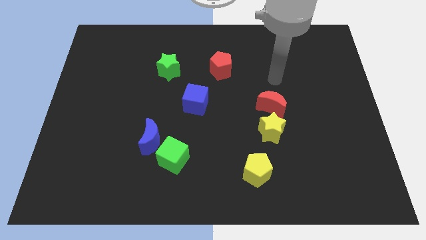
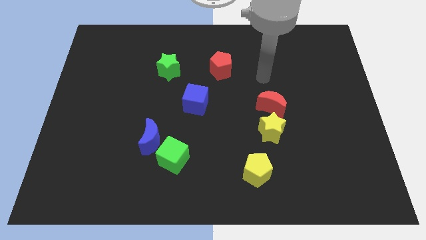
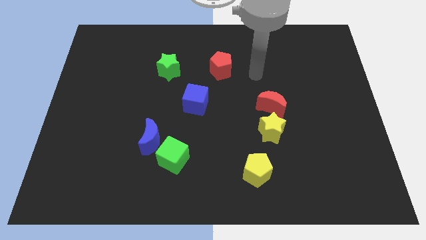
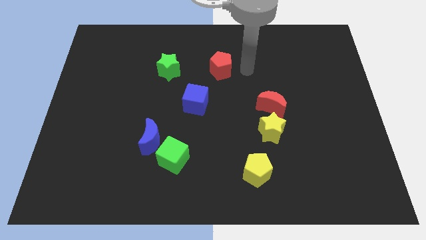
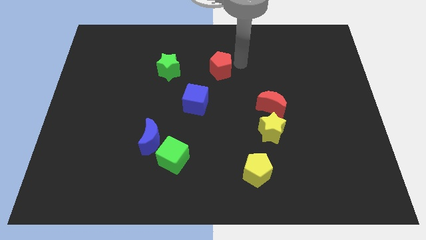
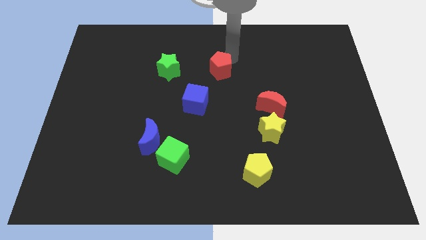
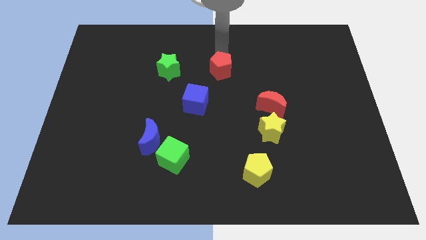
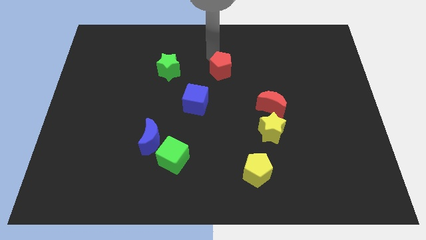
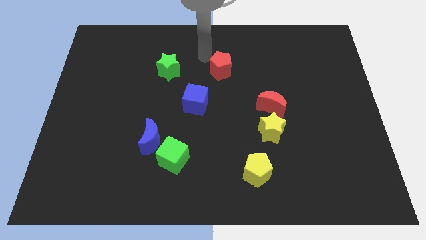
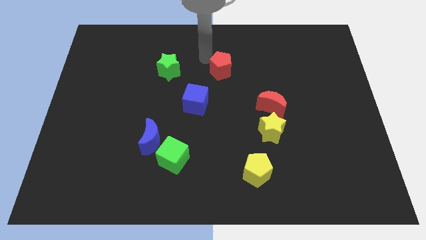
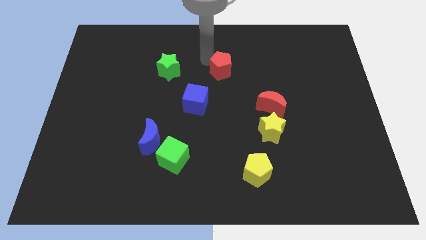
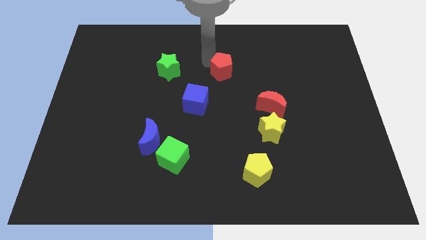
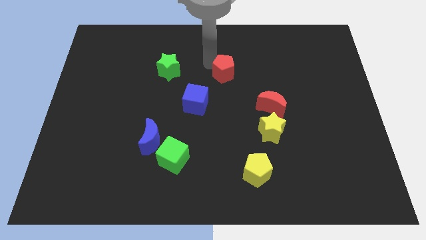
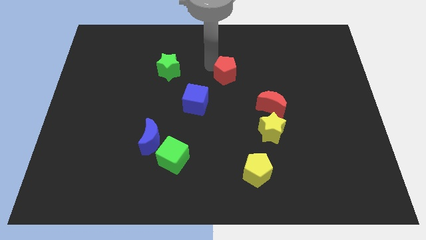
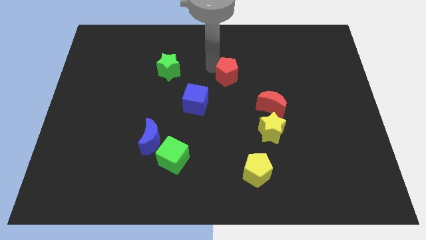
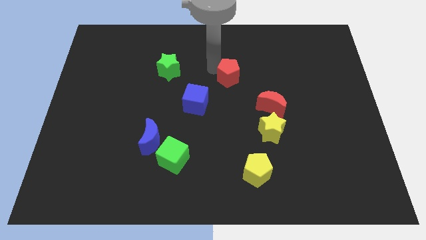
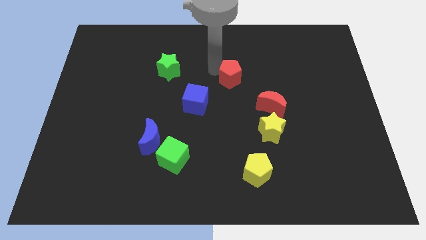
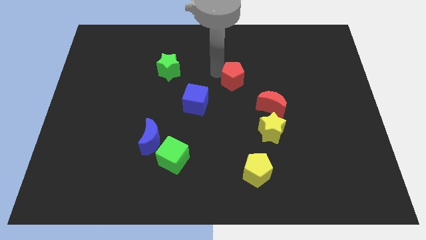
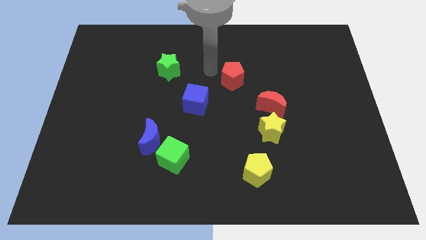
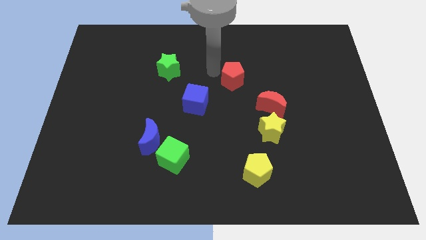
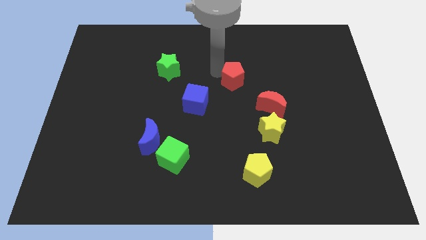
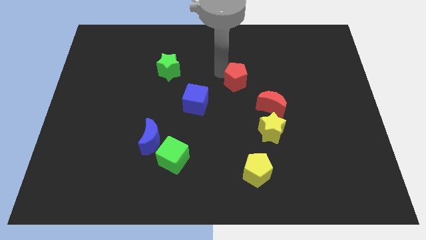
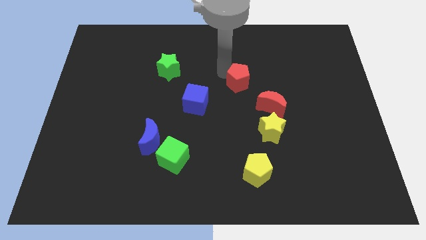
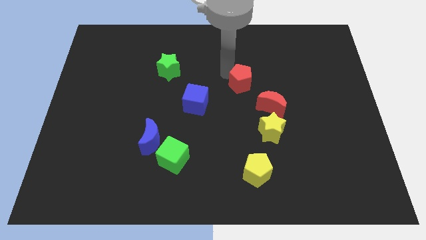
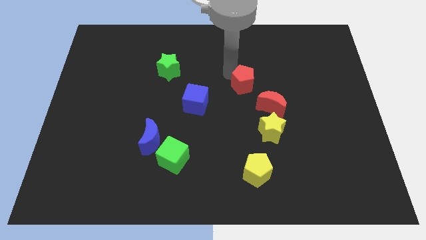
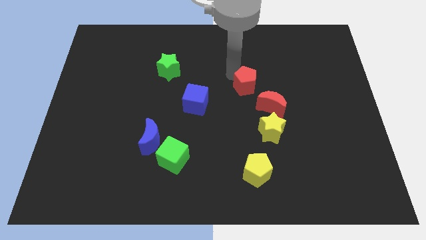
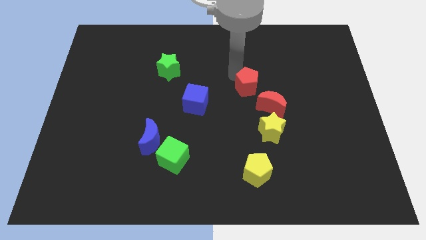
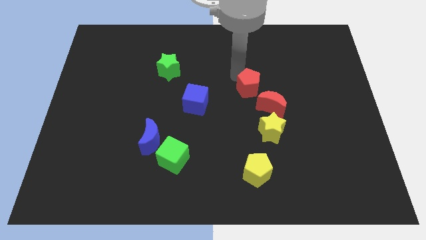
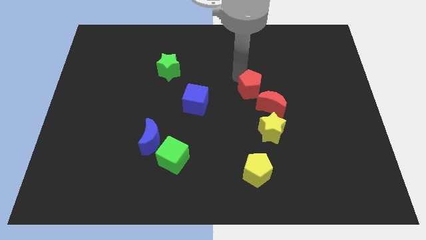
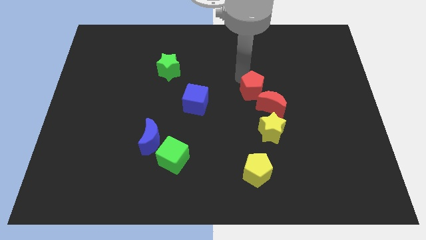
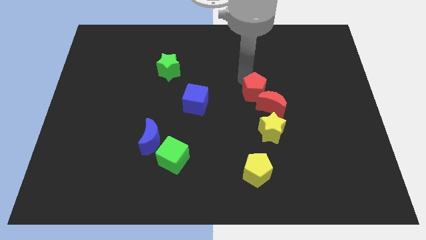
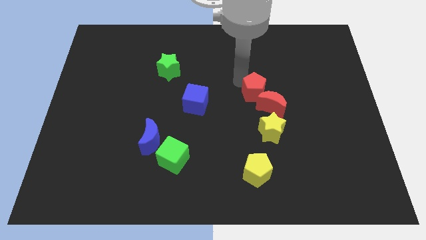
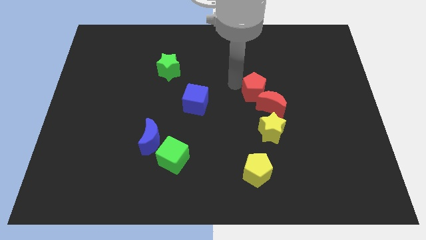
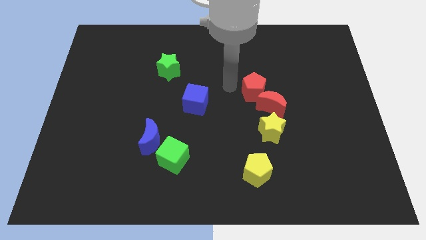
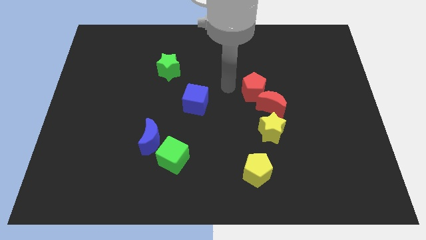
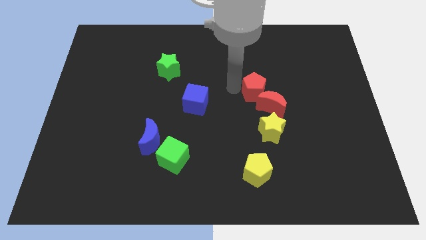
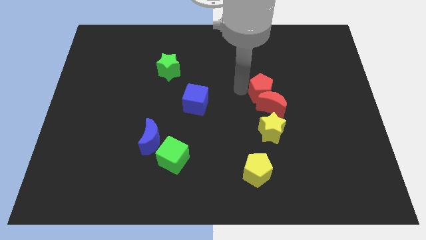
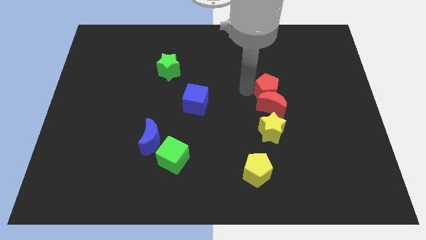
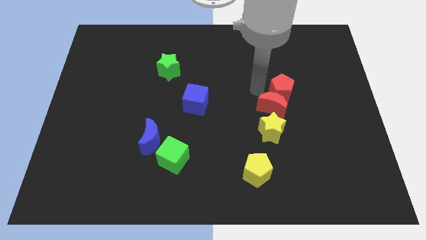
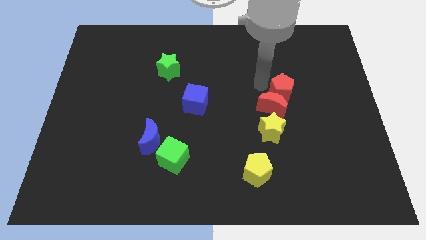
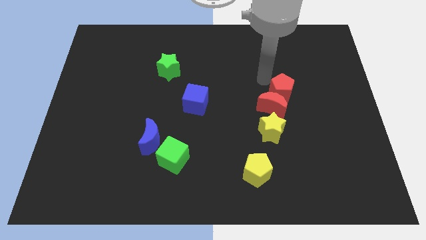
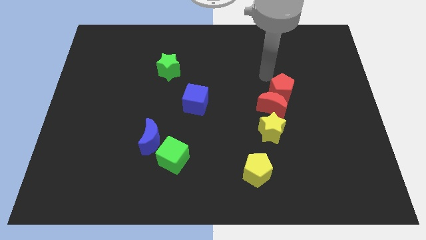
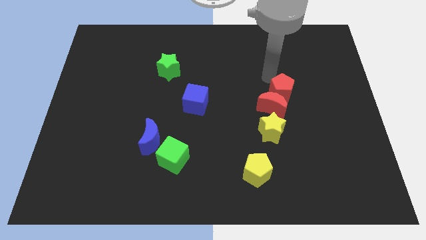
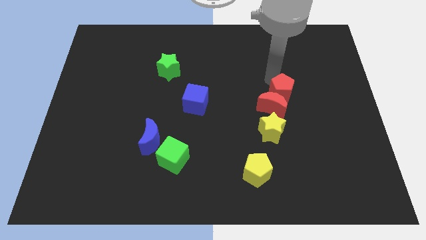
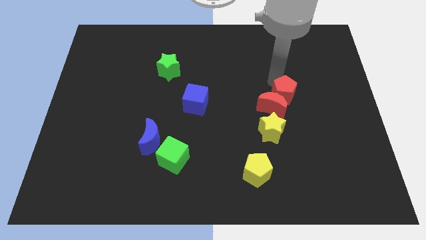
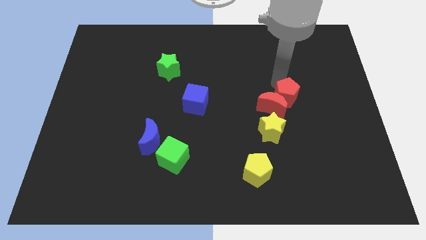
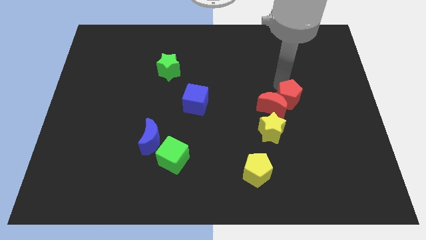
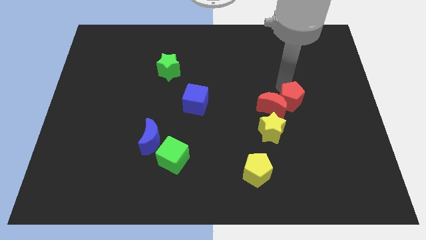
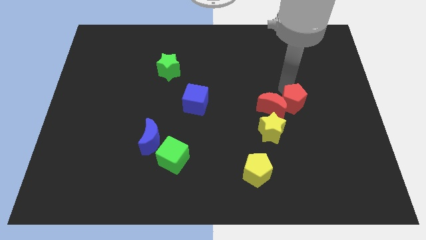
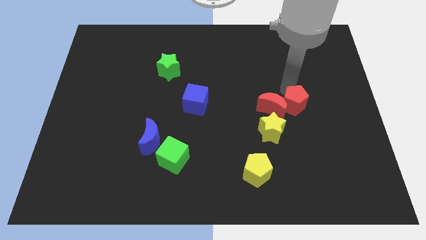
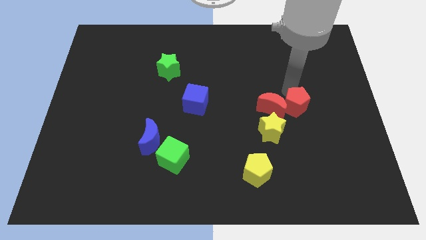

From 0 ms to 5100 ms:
slide the red pentagon down and to the right

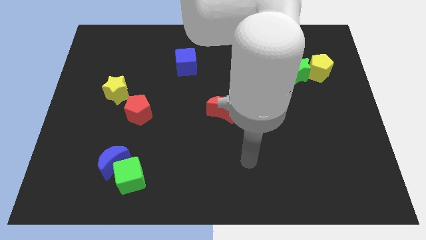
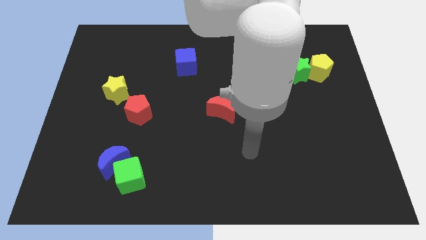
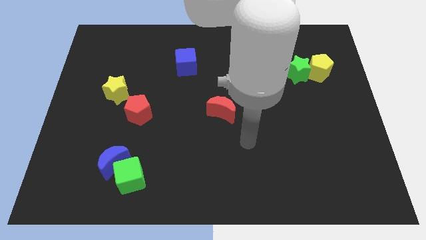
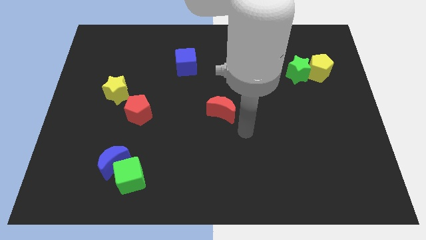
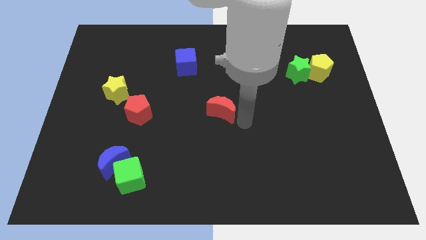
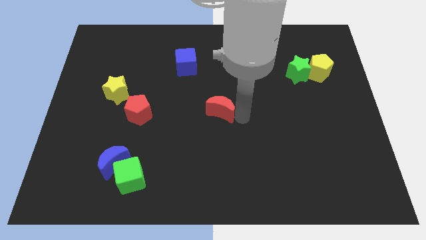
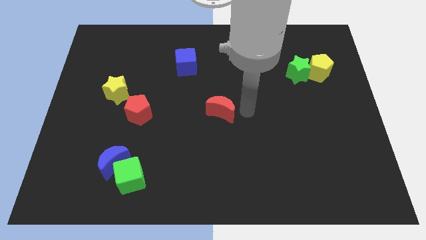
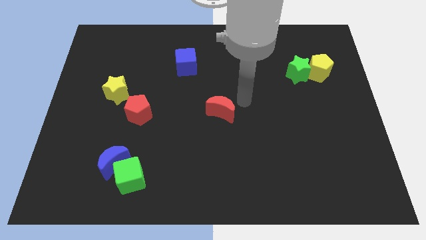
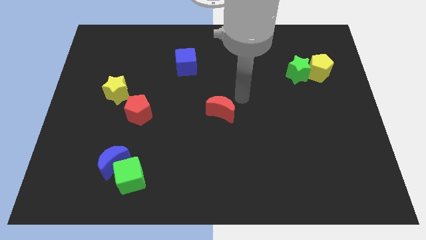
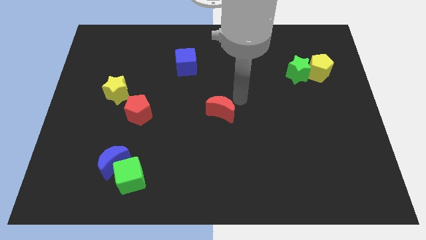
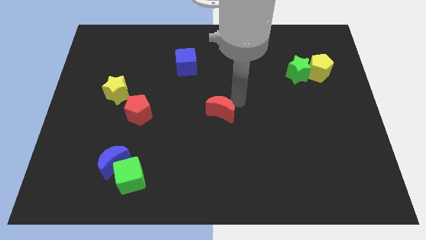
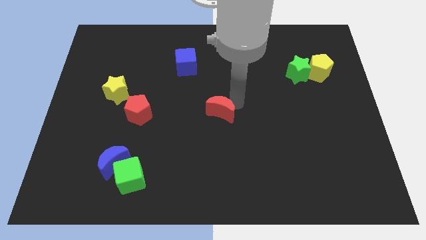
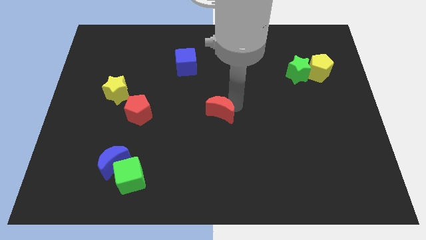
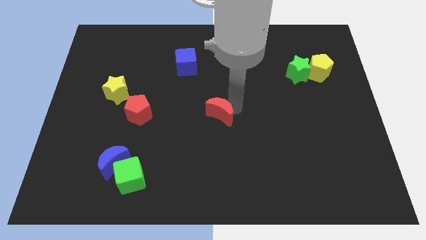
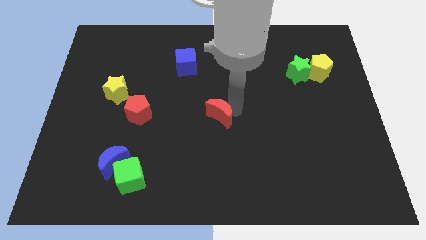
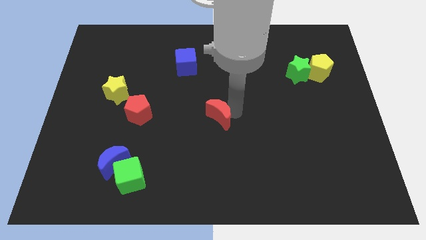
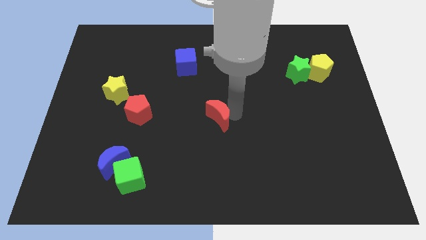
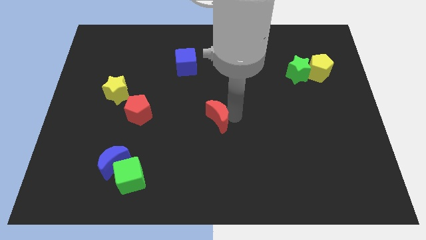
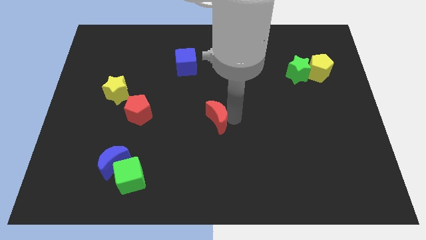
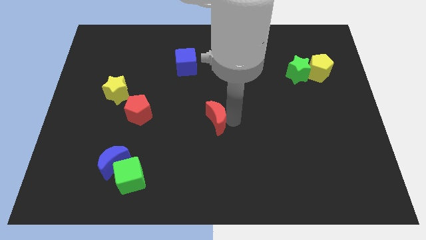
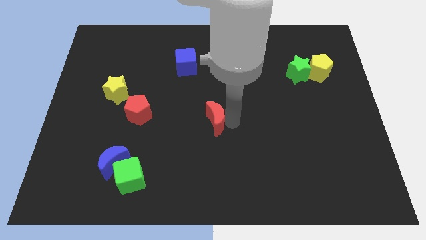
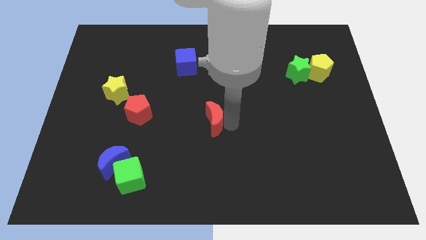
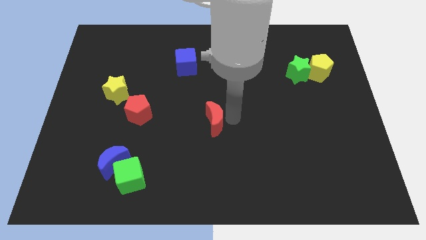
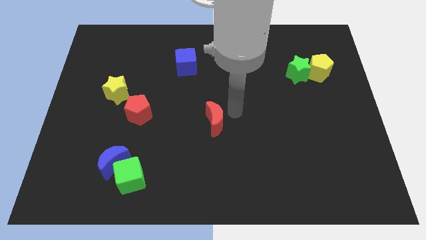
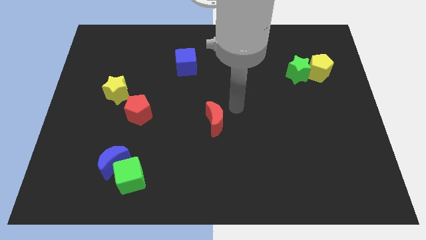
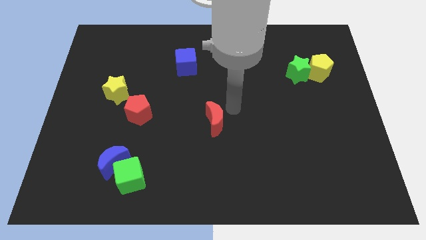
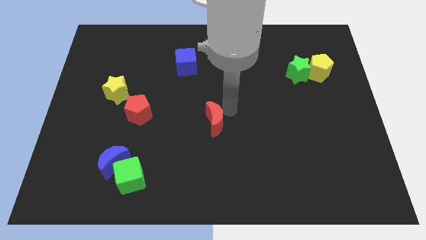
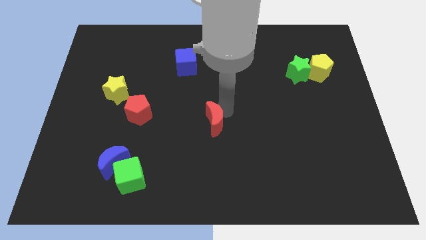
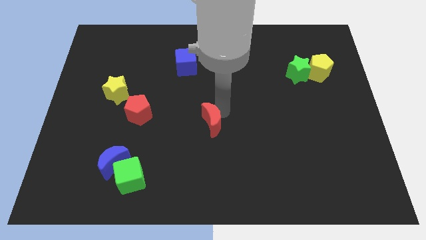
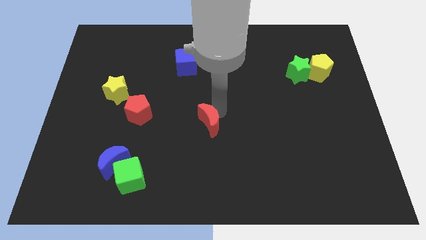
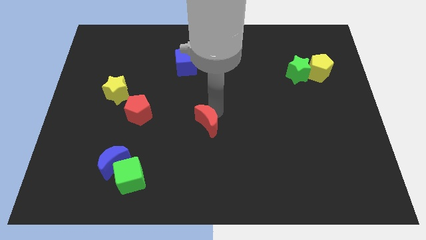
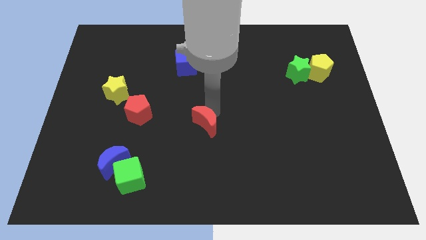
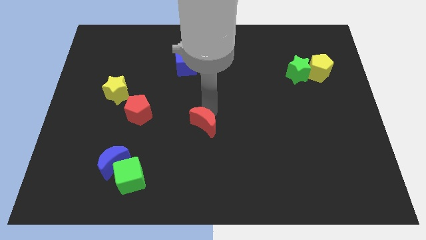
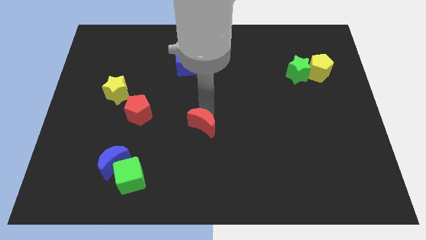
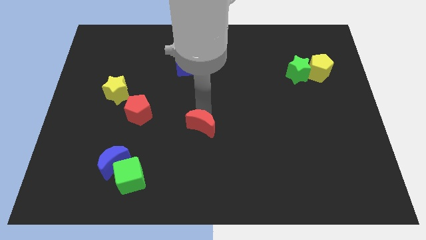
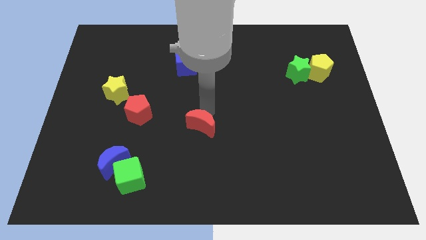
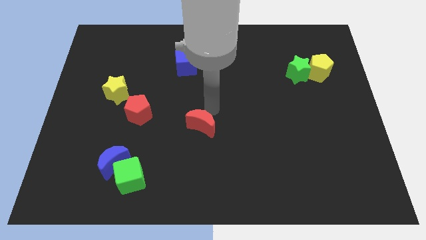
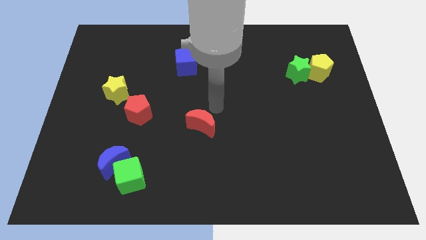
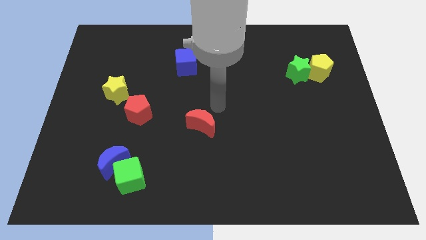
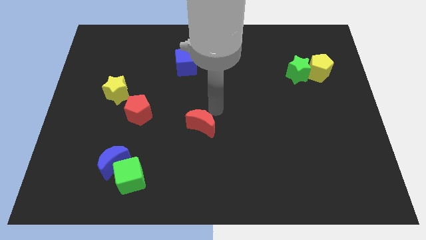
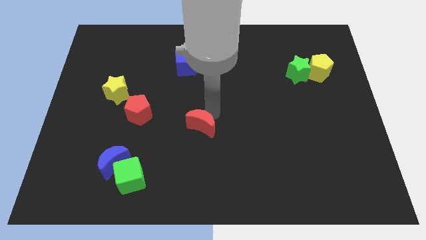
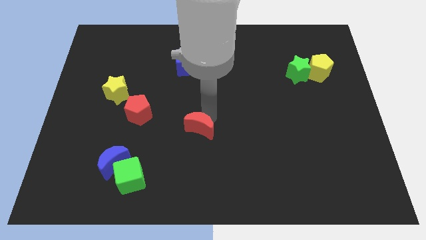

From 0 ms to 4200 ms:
slightly push the red moon diagonally down and left
